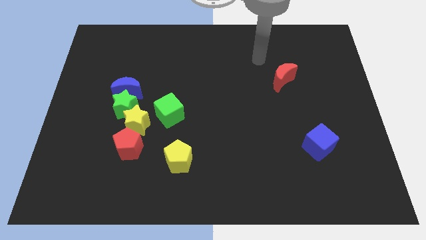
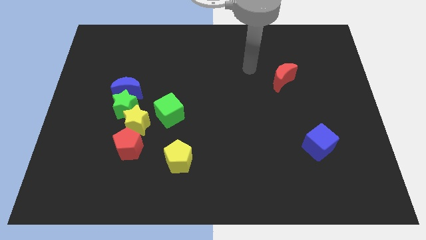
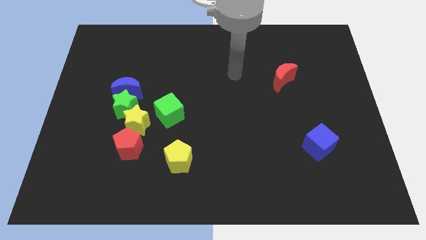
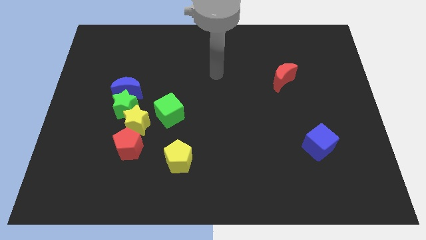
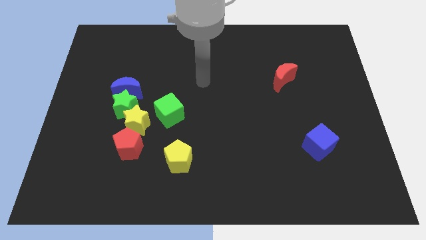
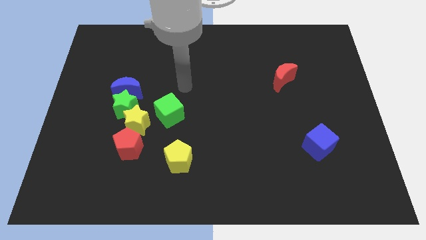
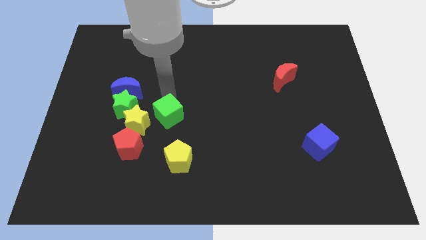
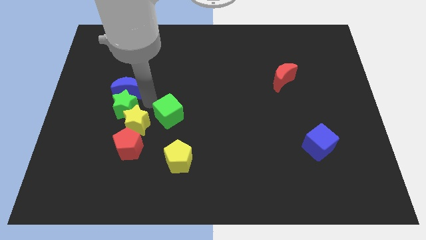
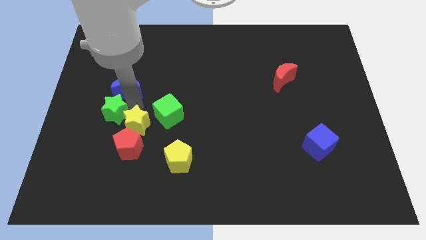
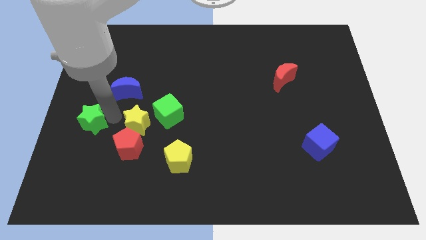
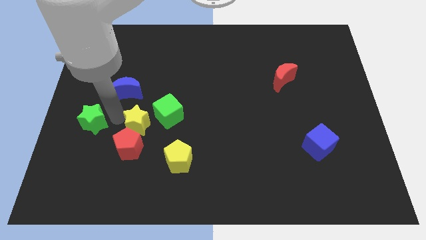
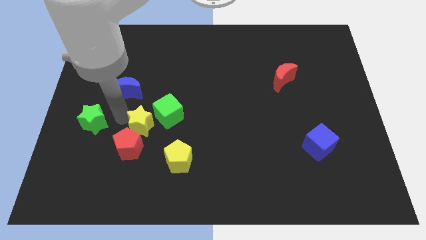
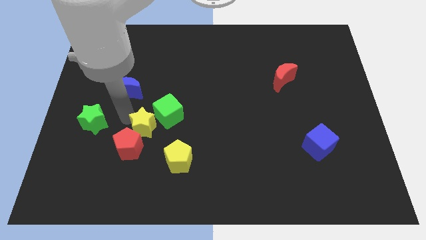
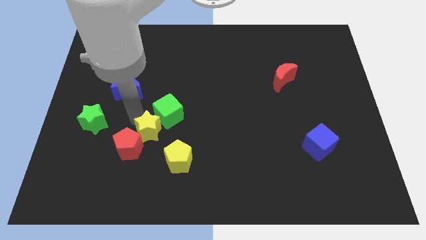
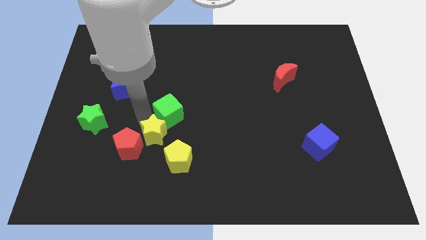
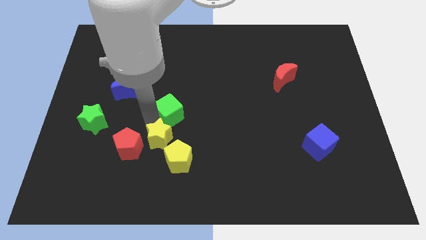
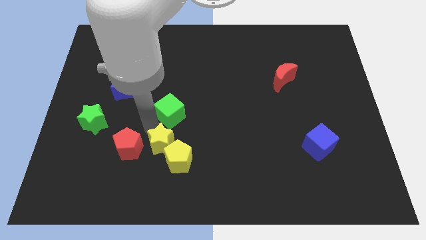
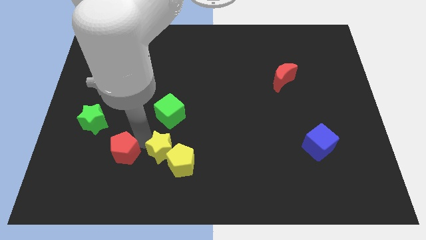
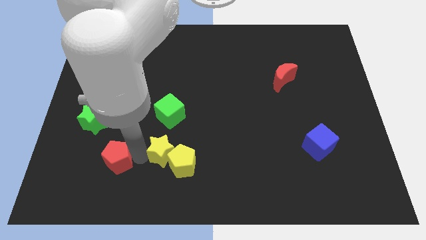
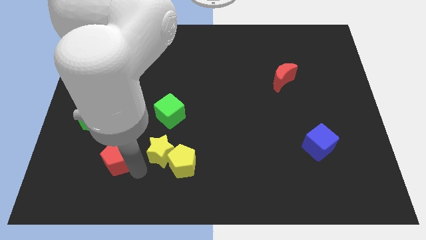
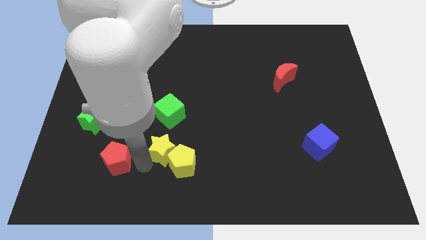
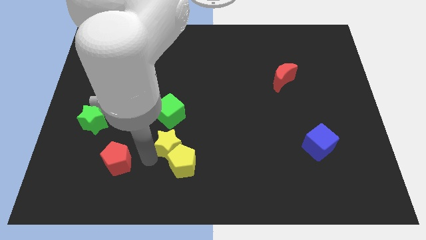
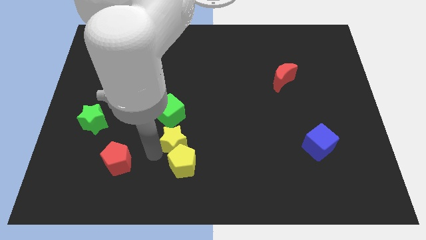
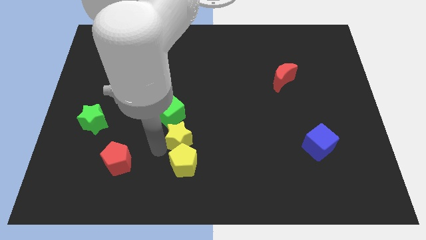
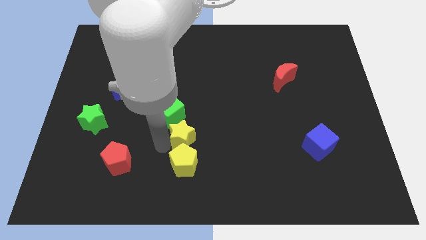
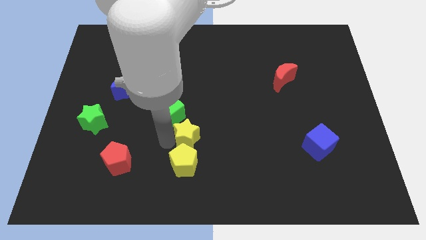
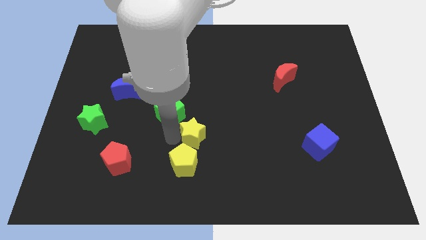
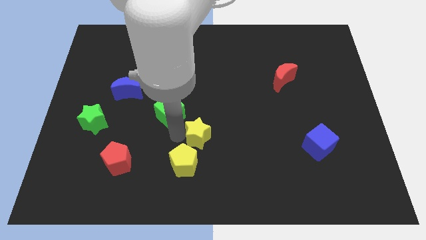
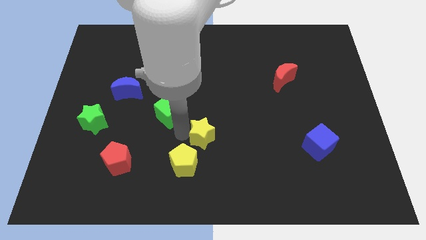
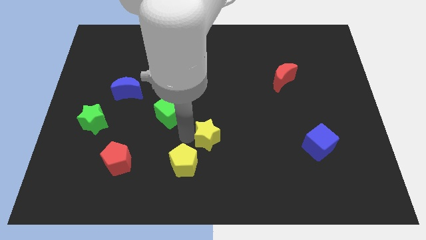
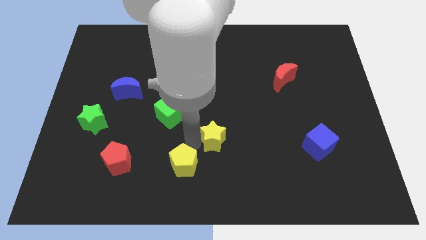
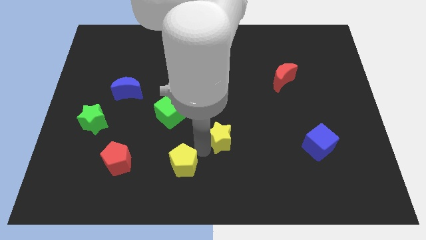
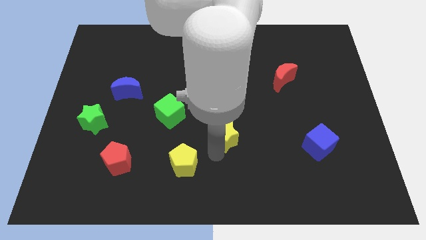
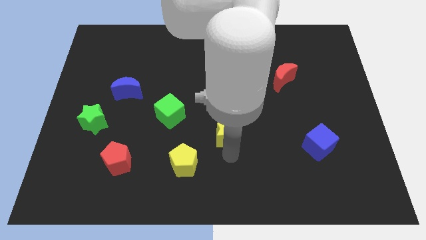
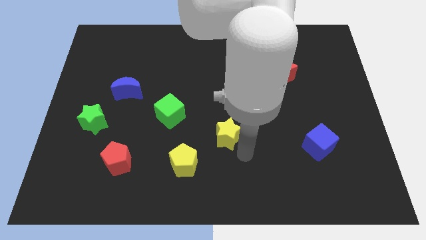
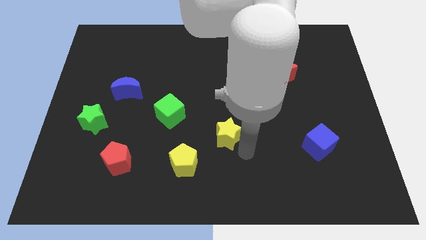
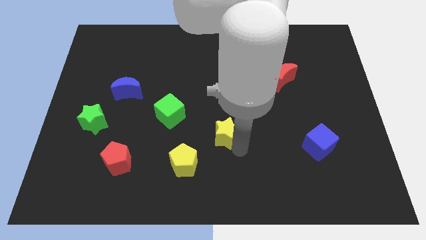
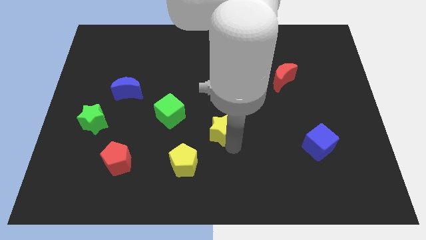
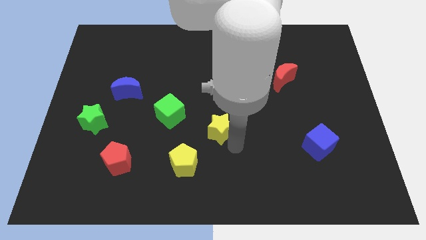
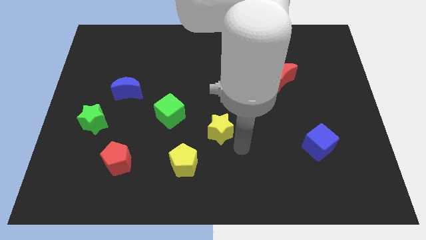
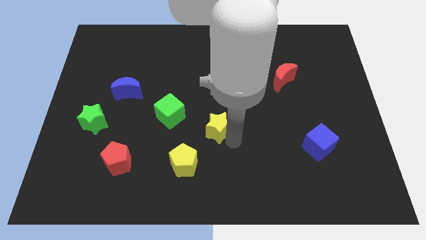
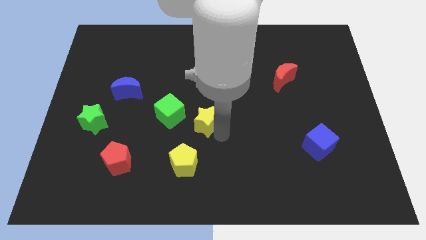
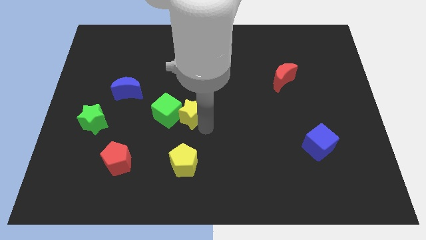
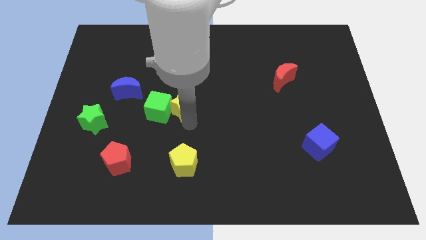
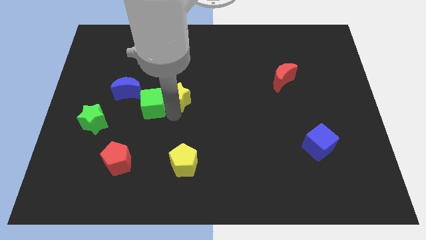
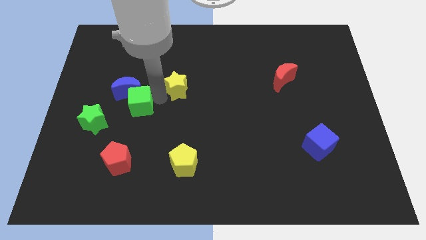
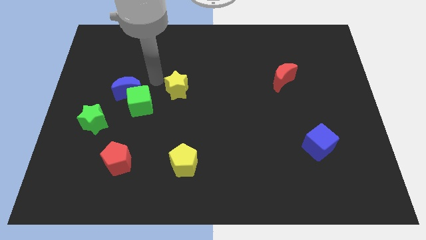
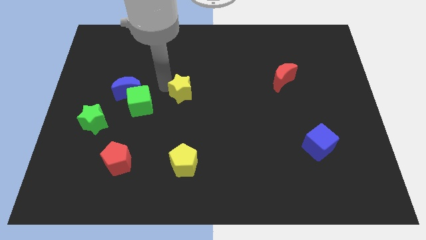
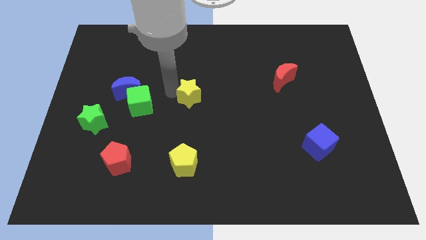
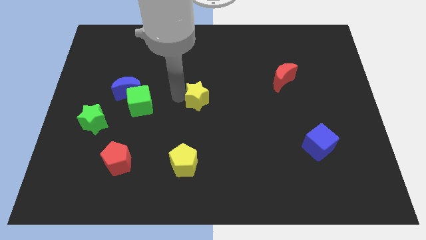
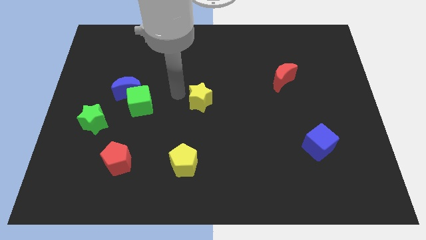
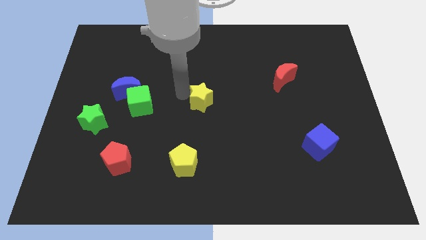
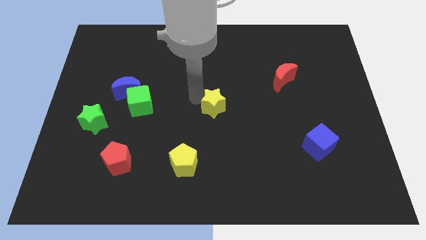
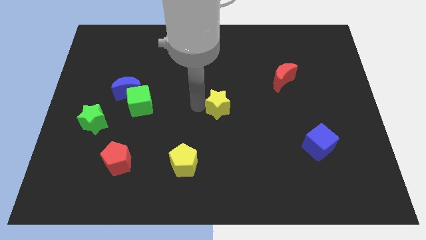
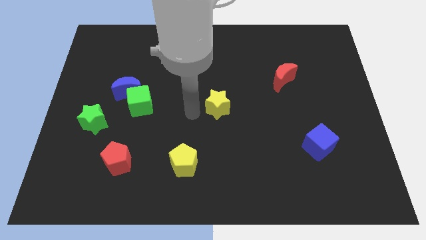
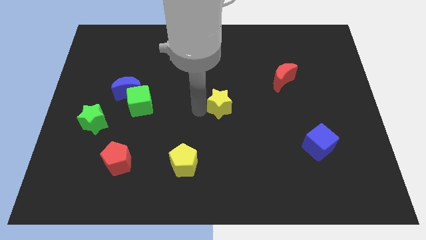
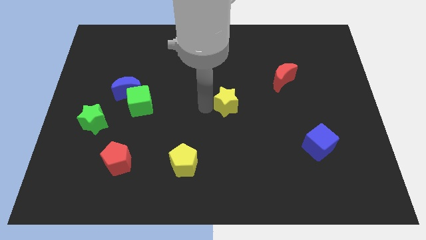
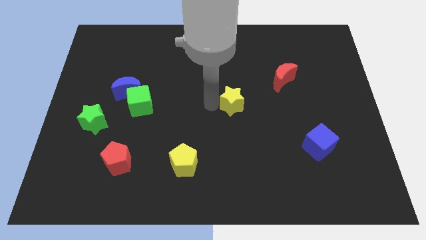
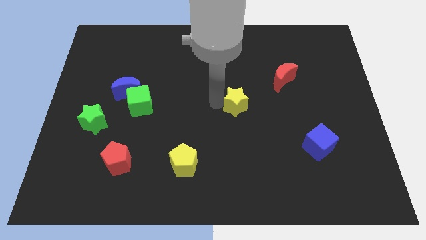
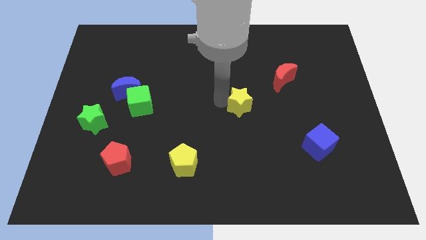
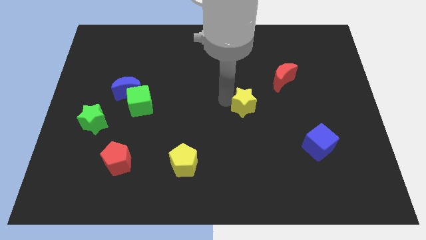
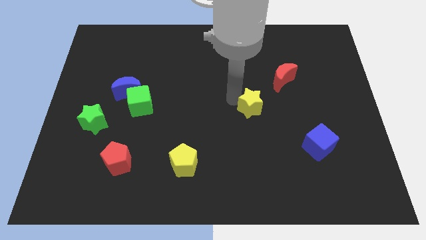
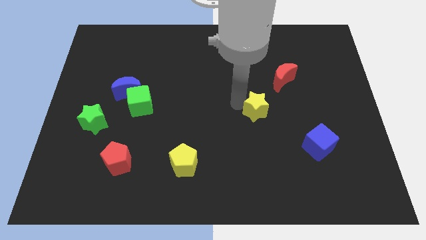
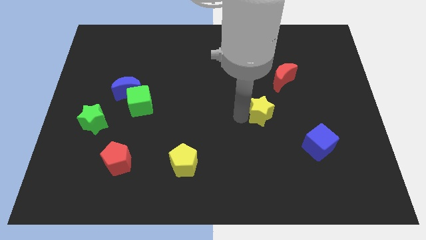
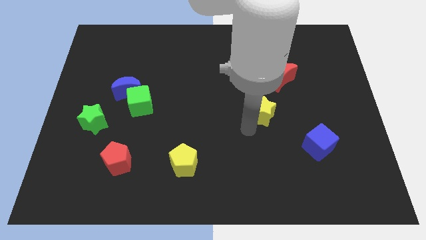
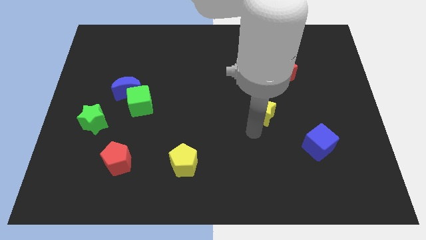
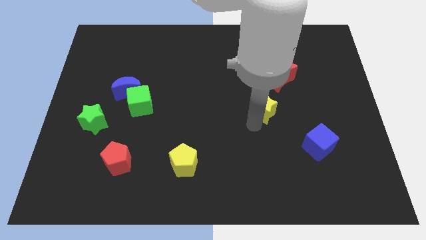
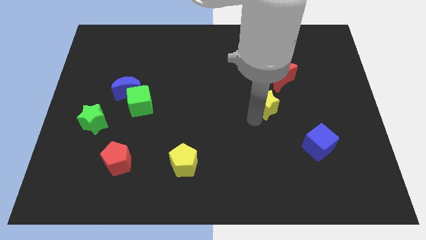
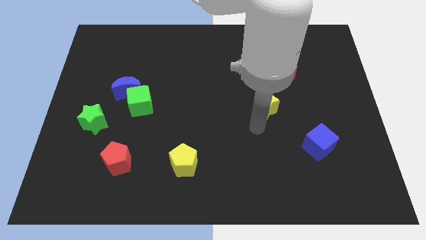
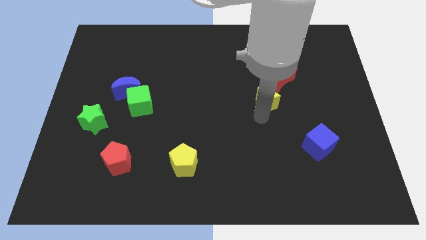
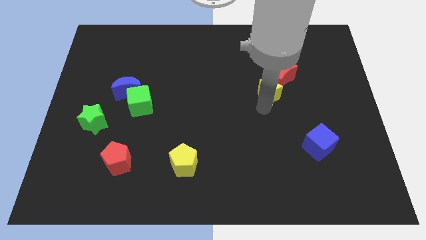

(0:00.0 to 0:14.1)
slide the yellow star close to the red moon
